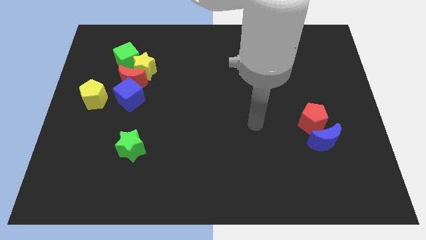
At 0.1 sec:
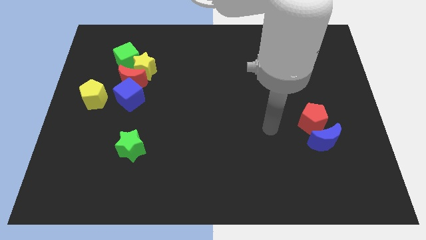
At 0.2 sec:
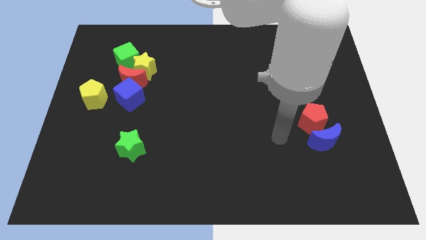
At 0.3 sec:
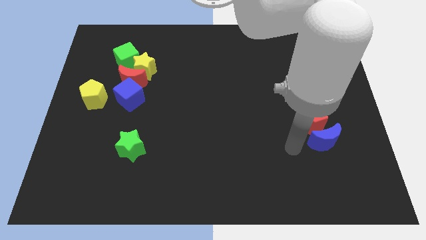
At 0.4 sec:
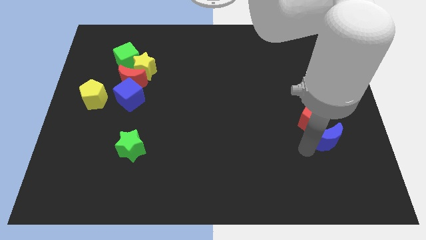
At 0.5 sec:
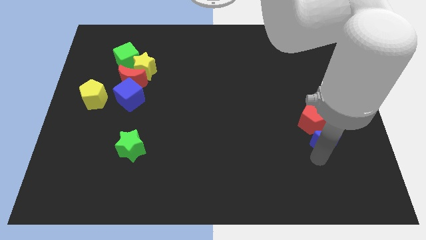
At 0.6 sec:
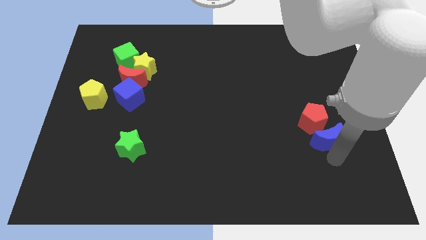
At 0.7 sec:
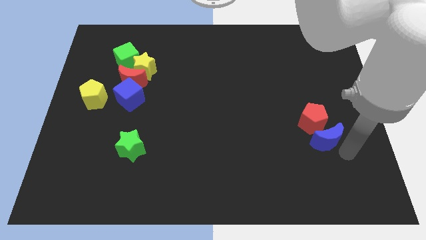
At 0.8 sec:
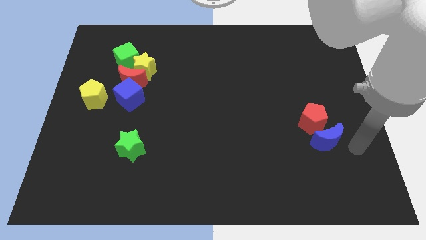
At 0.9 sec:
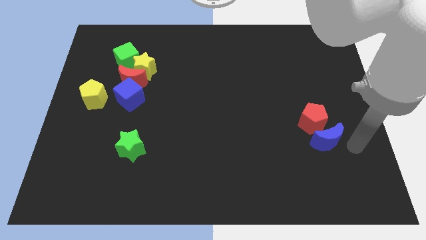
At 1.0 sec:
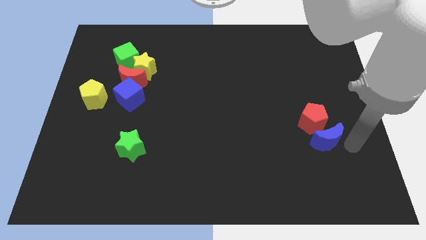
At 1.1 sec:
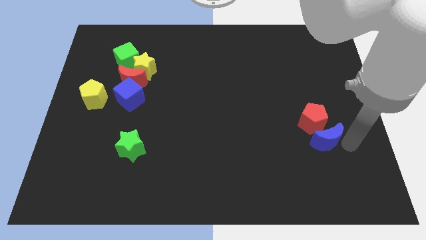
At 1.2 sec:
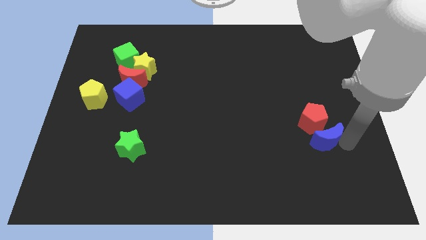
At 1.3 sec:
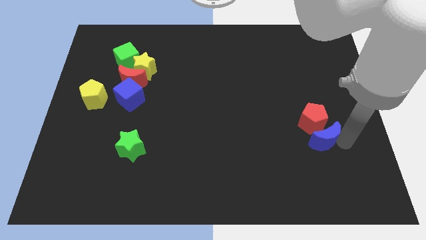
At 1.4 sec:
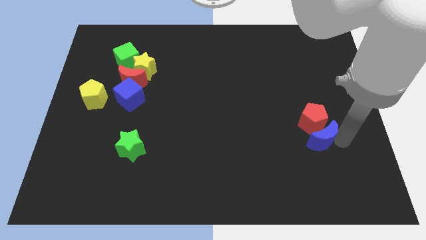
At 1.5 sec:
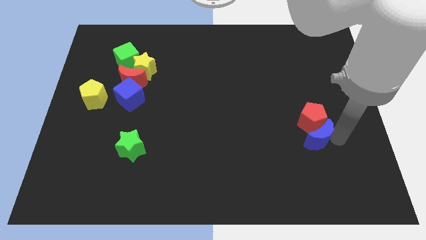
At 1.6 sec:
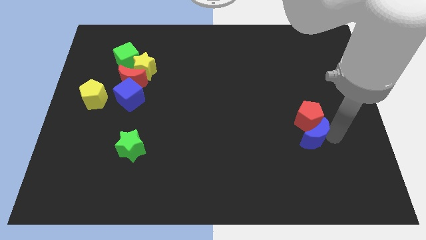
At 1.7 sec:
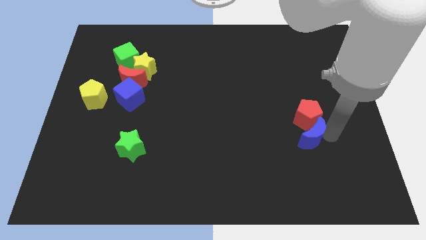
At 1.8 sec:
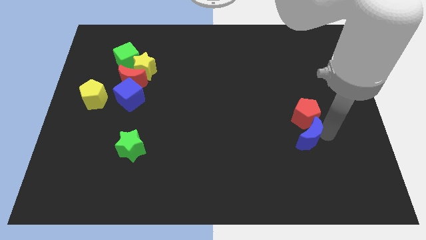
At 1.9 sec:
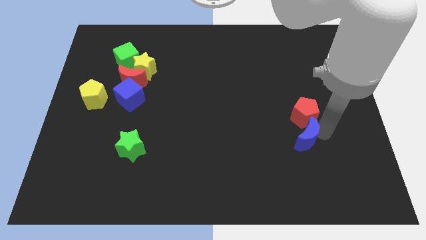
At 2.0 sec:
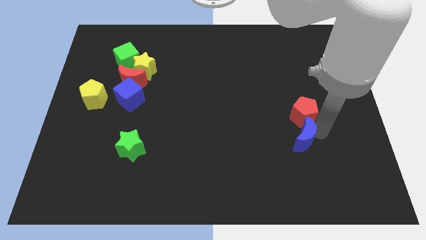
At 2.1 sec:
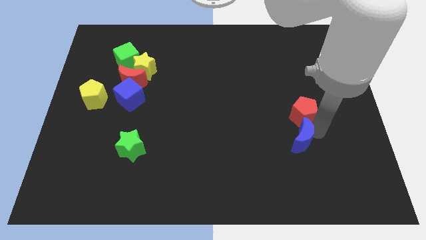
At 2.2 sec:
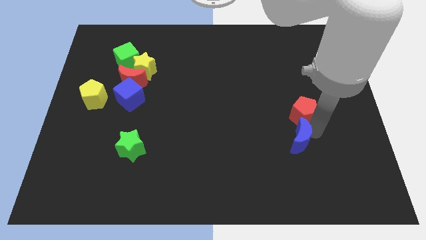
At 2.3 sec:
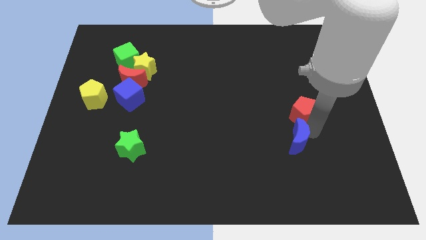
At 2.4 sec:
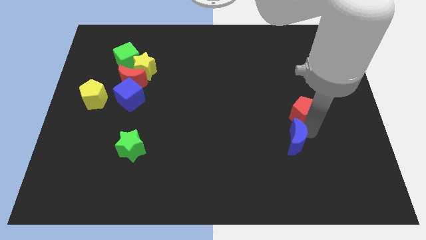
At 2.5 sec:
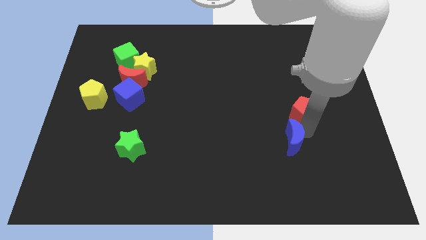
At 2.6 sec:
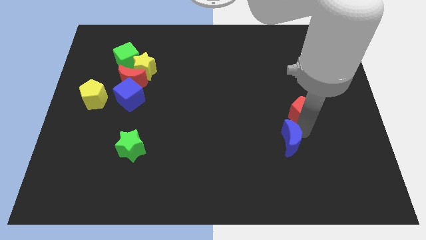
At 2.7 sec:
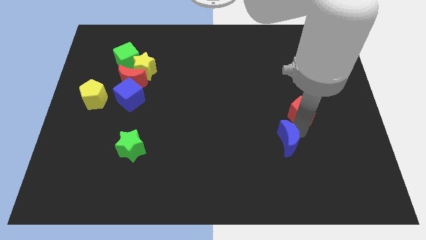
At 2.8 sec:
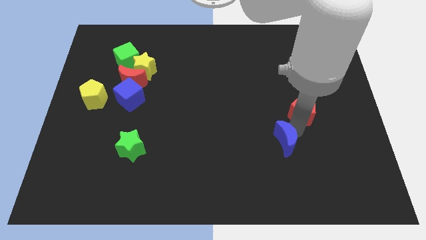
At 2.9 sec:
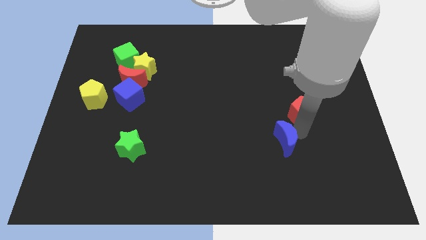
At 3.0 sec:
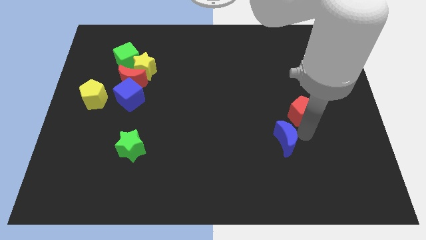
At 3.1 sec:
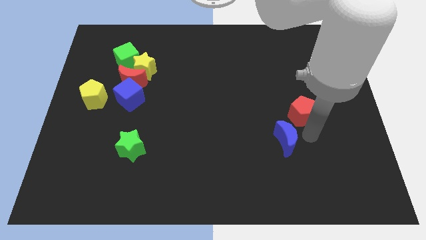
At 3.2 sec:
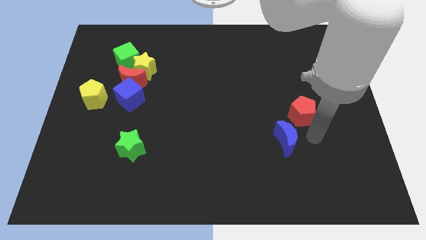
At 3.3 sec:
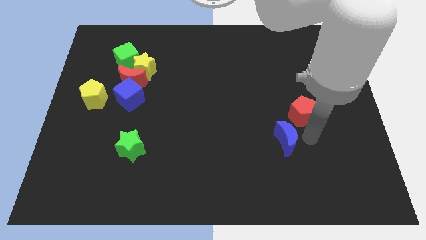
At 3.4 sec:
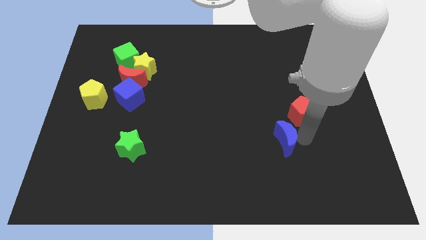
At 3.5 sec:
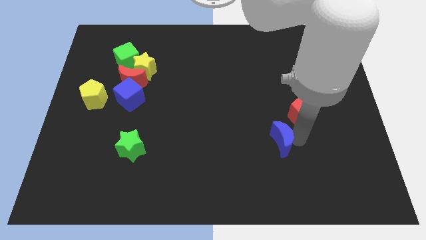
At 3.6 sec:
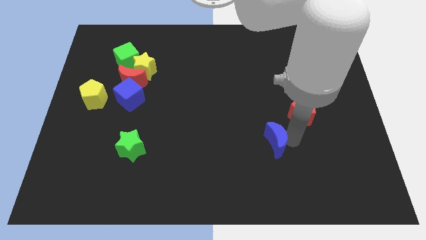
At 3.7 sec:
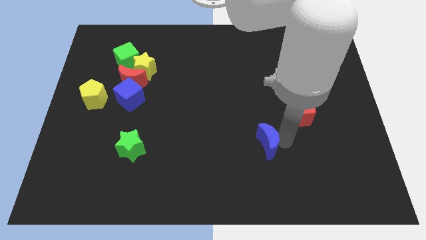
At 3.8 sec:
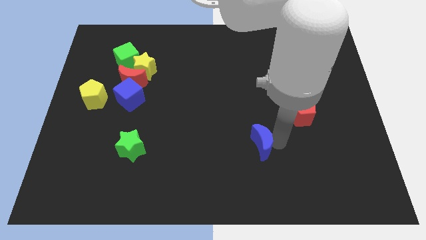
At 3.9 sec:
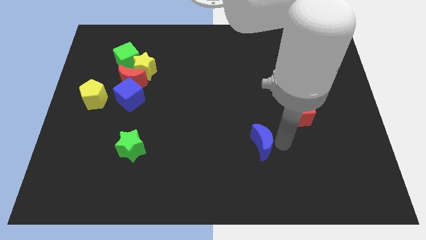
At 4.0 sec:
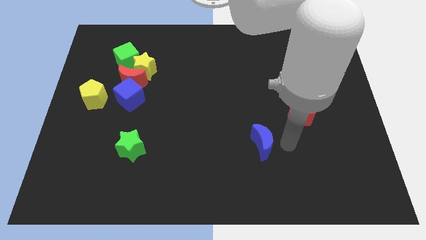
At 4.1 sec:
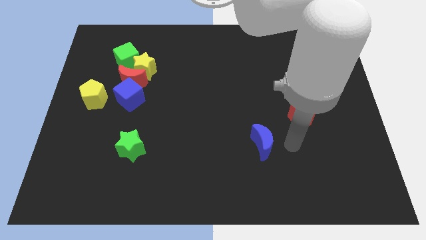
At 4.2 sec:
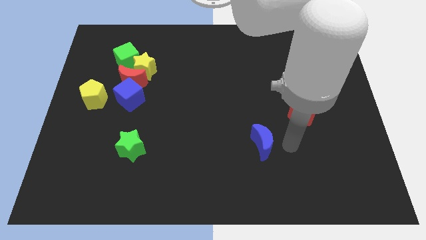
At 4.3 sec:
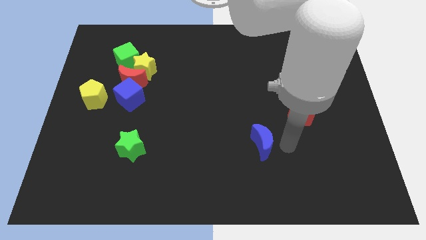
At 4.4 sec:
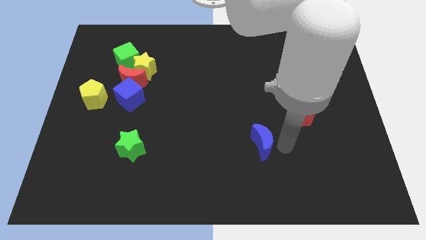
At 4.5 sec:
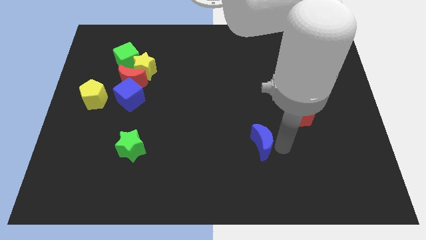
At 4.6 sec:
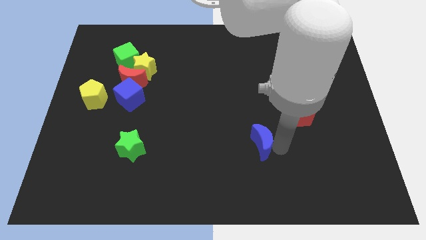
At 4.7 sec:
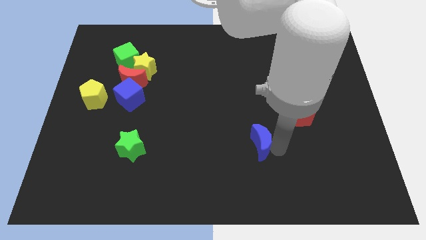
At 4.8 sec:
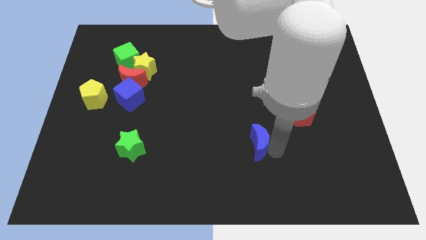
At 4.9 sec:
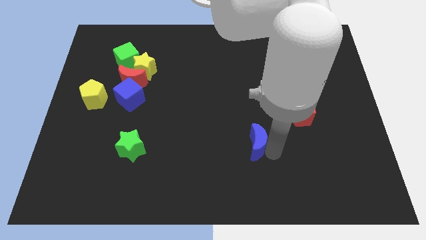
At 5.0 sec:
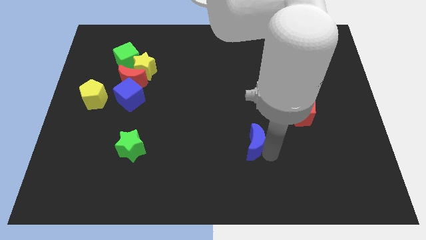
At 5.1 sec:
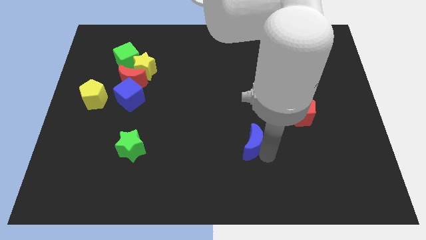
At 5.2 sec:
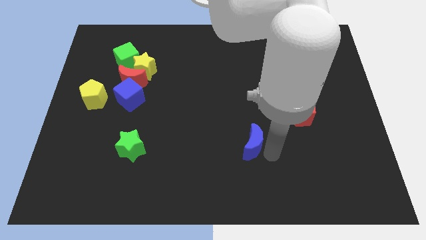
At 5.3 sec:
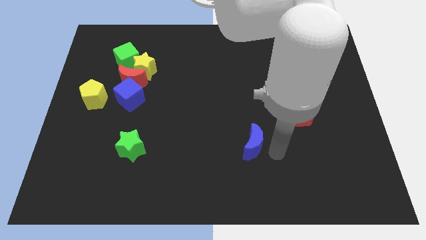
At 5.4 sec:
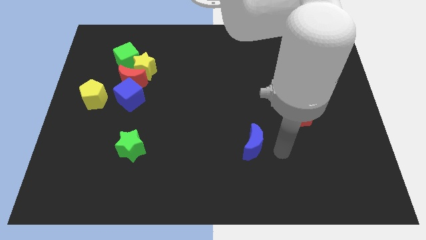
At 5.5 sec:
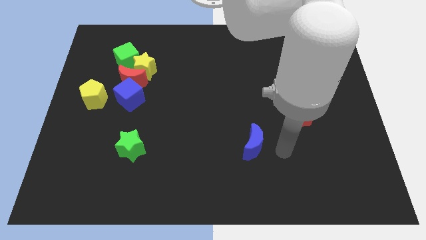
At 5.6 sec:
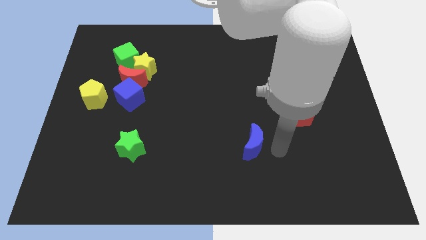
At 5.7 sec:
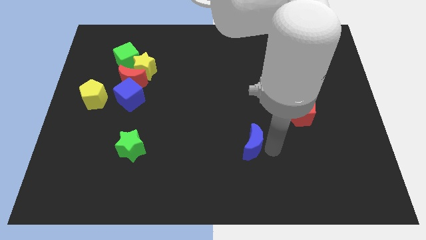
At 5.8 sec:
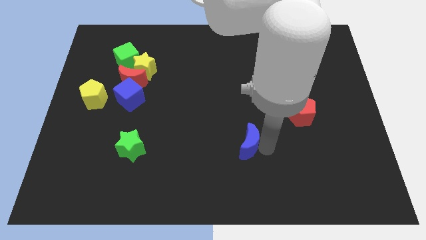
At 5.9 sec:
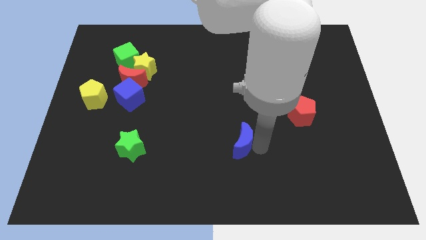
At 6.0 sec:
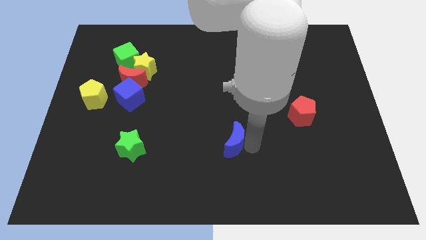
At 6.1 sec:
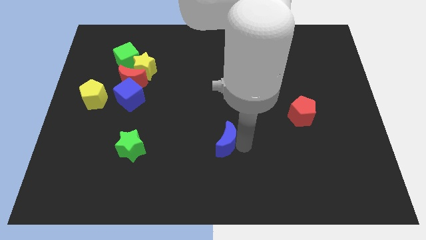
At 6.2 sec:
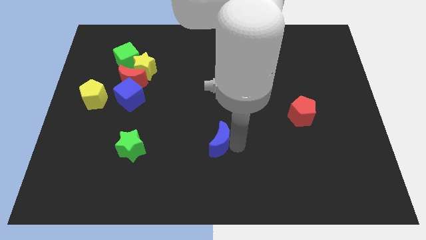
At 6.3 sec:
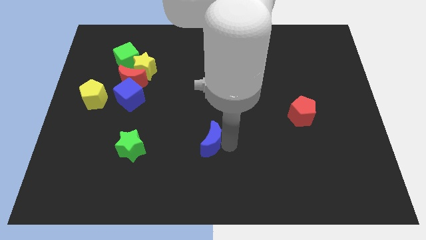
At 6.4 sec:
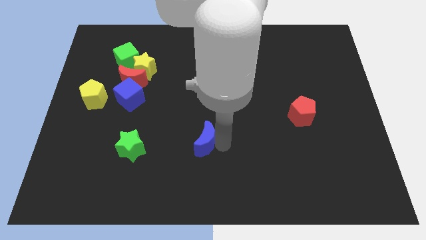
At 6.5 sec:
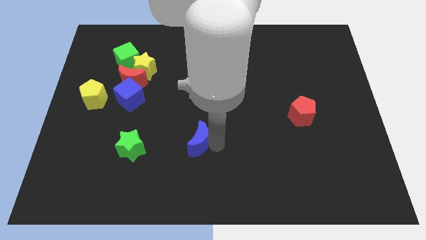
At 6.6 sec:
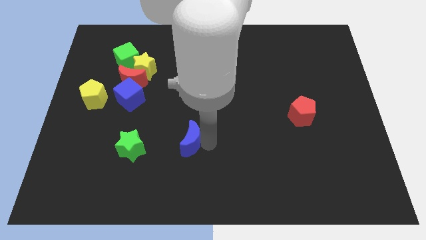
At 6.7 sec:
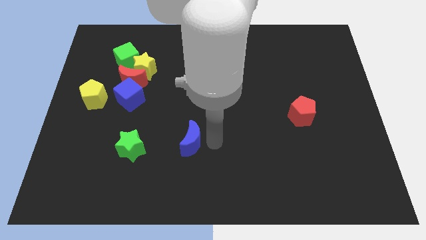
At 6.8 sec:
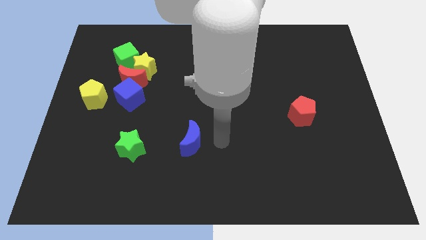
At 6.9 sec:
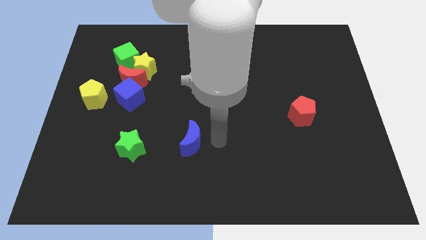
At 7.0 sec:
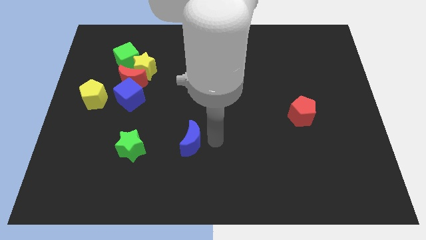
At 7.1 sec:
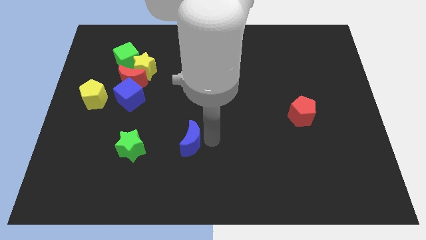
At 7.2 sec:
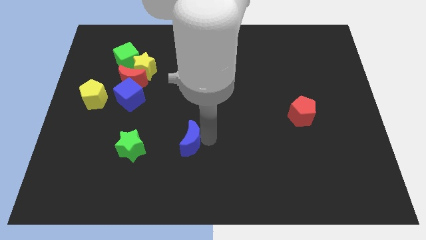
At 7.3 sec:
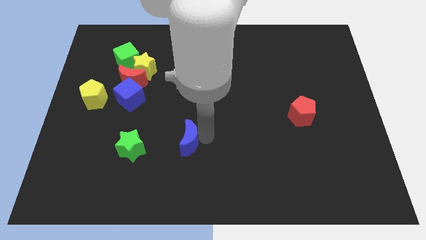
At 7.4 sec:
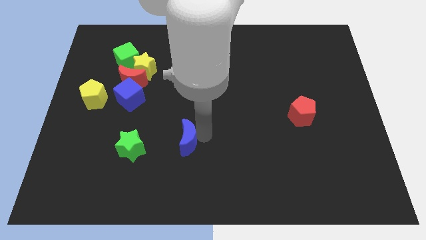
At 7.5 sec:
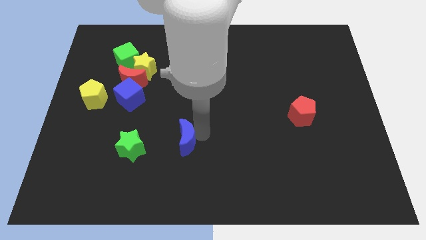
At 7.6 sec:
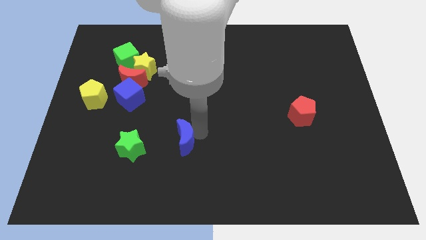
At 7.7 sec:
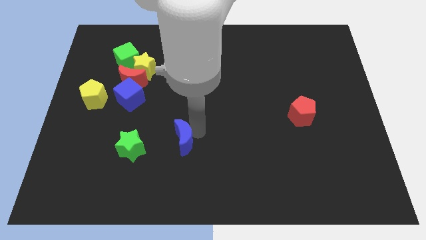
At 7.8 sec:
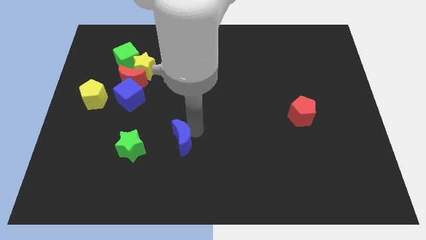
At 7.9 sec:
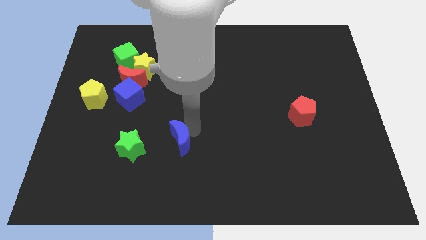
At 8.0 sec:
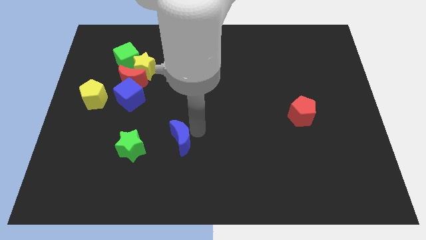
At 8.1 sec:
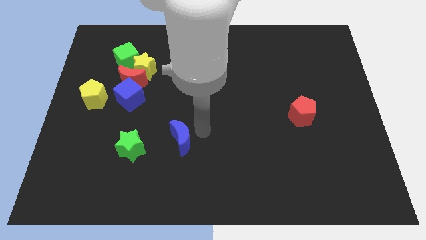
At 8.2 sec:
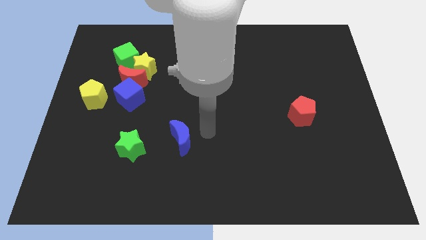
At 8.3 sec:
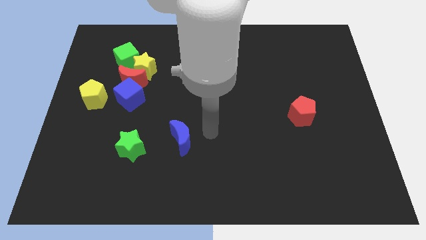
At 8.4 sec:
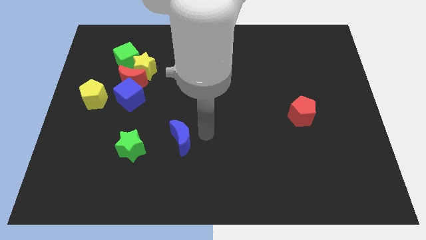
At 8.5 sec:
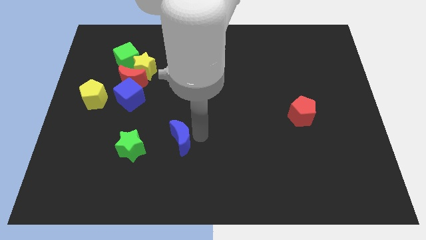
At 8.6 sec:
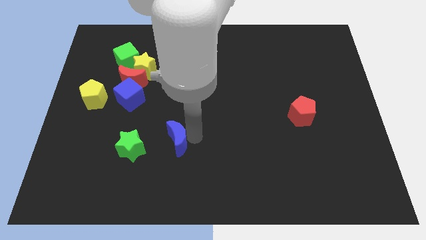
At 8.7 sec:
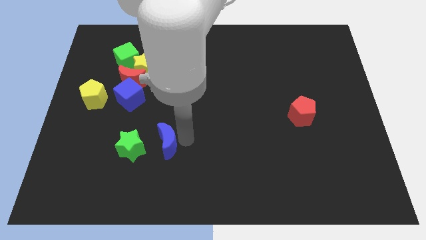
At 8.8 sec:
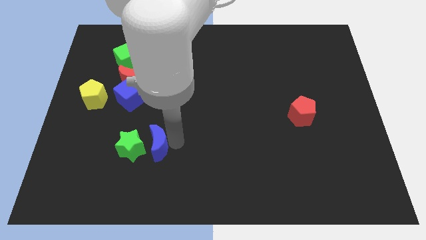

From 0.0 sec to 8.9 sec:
push the blue moon close to the green star
